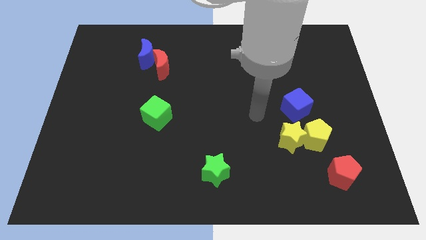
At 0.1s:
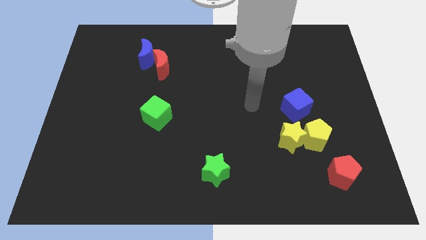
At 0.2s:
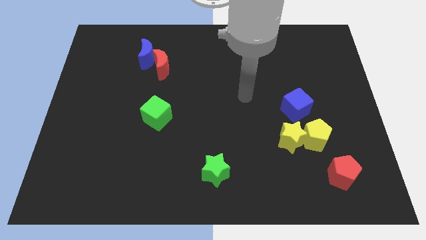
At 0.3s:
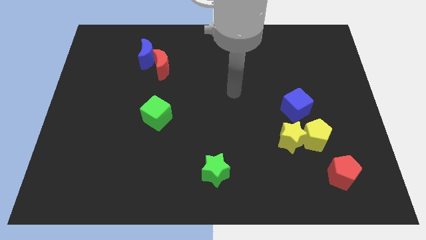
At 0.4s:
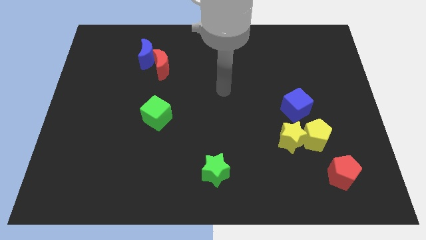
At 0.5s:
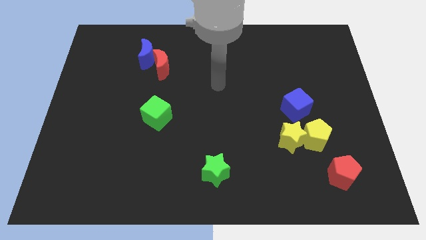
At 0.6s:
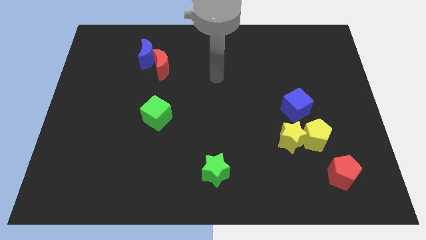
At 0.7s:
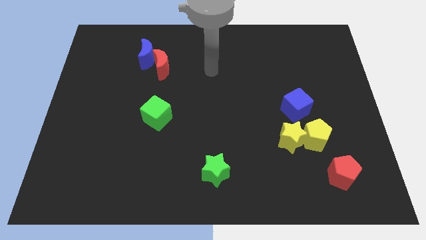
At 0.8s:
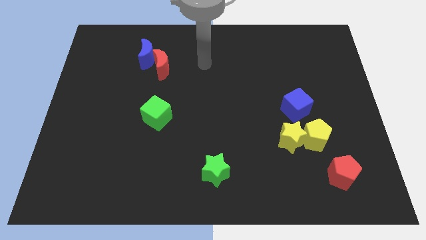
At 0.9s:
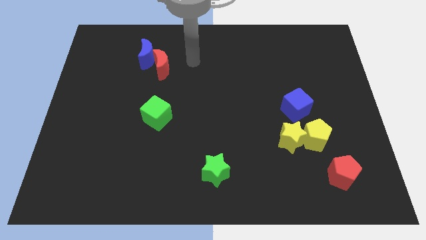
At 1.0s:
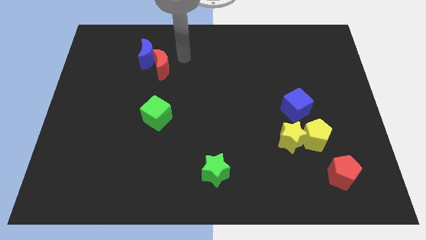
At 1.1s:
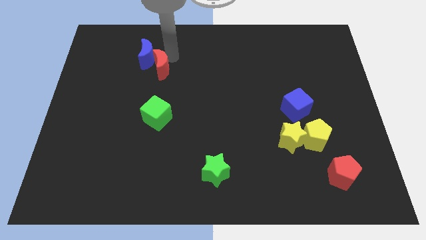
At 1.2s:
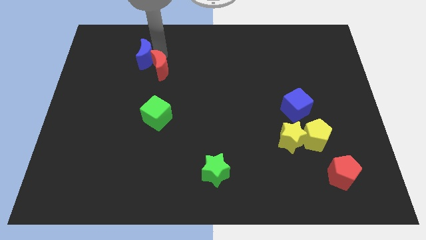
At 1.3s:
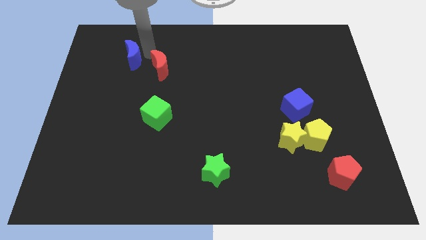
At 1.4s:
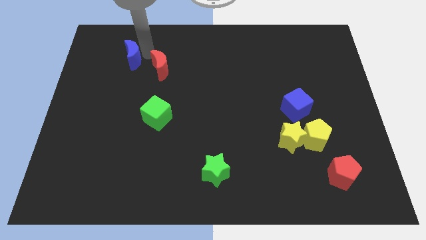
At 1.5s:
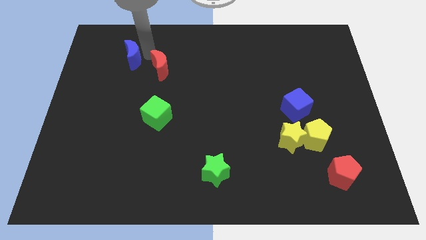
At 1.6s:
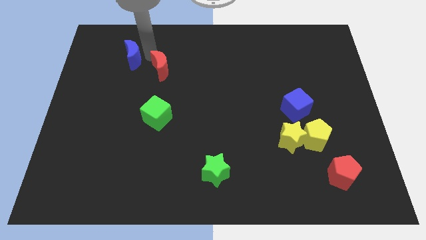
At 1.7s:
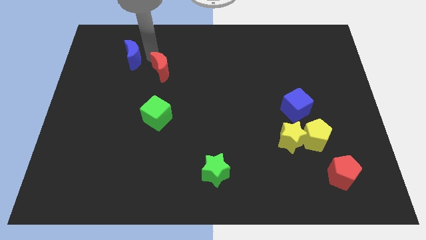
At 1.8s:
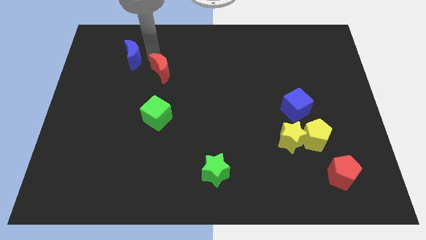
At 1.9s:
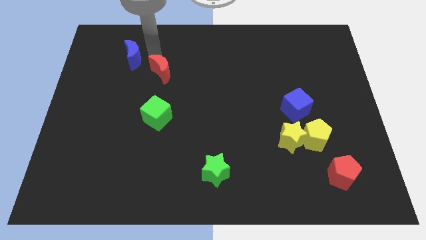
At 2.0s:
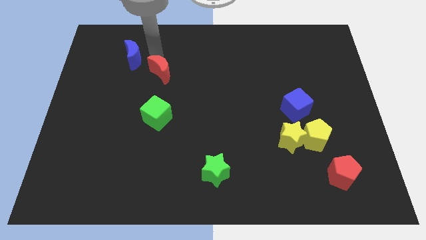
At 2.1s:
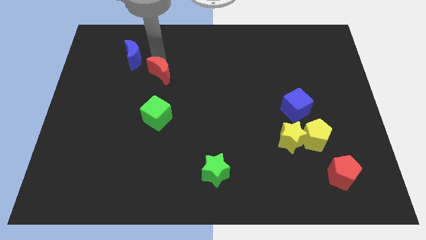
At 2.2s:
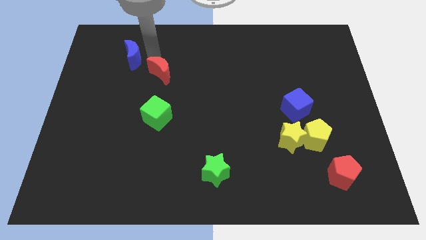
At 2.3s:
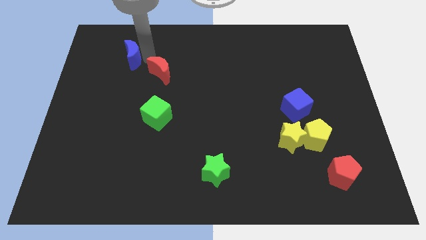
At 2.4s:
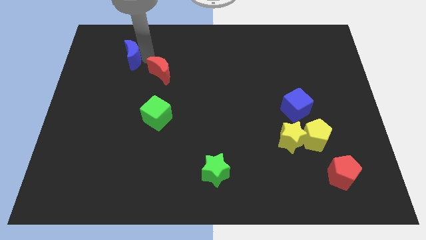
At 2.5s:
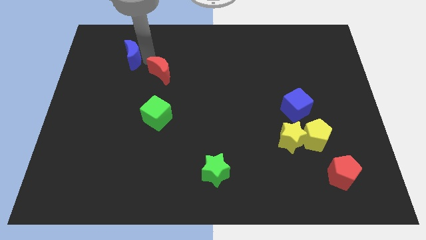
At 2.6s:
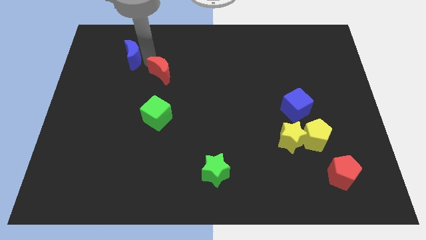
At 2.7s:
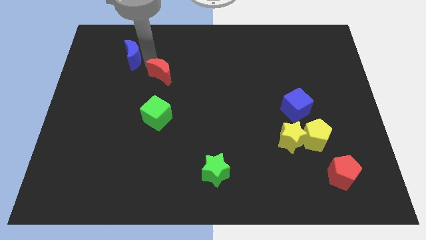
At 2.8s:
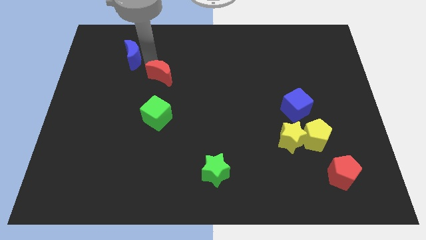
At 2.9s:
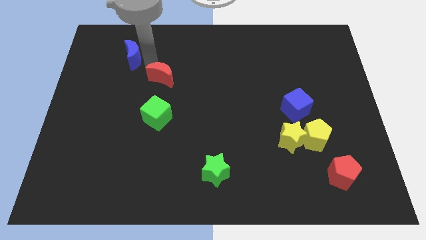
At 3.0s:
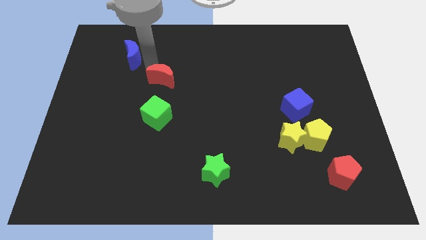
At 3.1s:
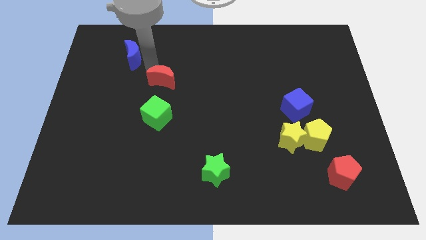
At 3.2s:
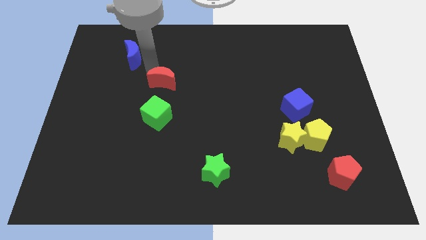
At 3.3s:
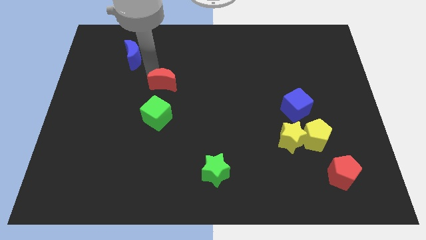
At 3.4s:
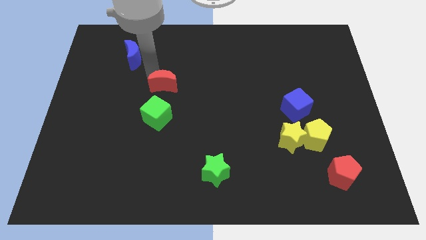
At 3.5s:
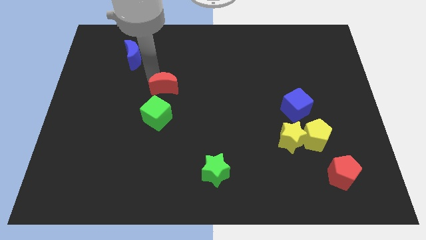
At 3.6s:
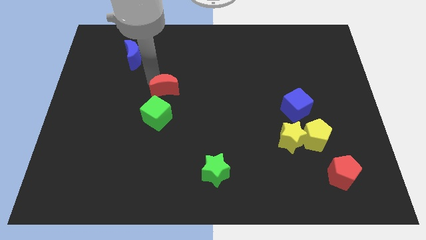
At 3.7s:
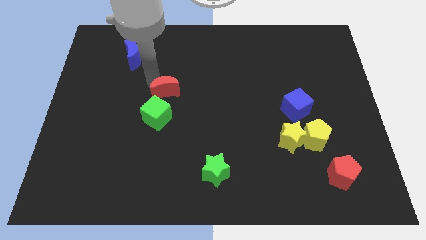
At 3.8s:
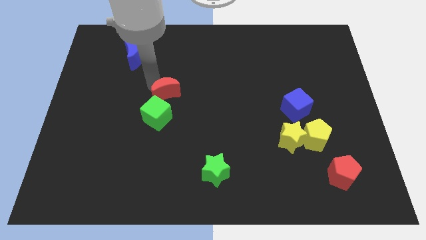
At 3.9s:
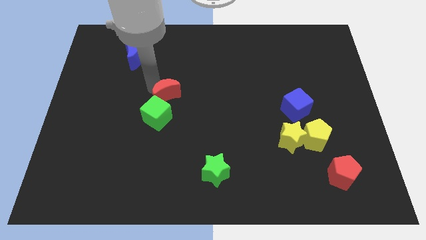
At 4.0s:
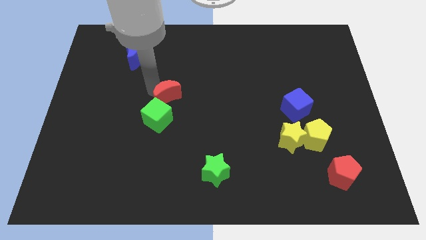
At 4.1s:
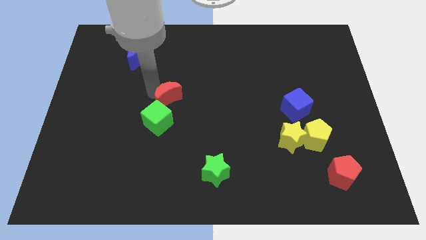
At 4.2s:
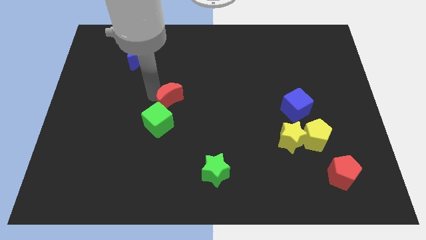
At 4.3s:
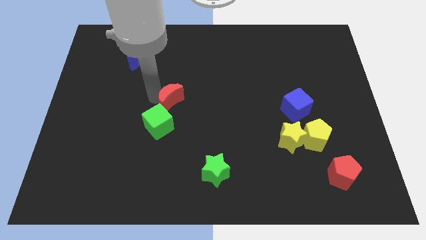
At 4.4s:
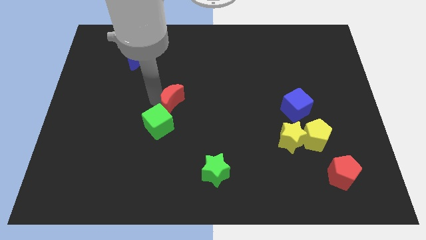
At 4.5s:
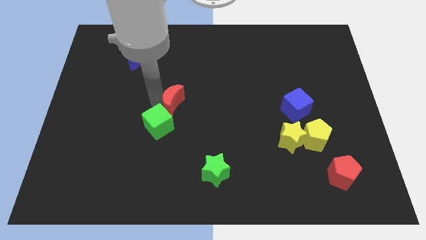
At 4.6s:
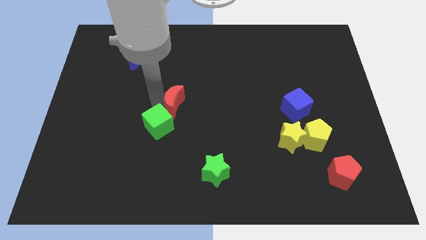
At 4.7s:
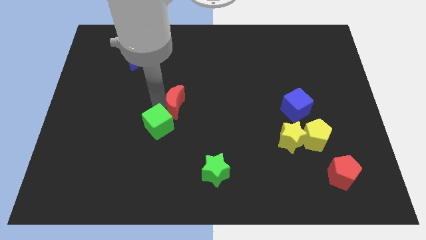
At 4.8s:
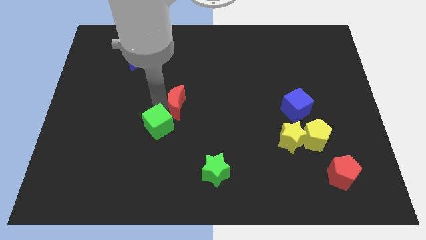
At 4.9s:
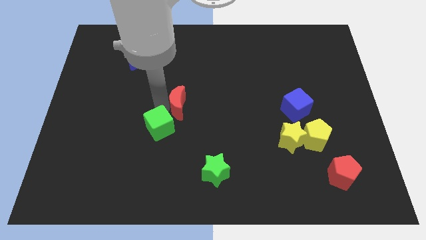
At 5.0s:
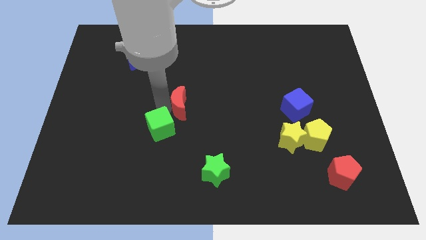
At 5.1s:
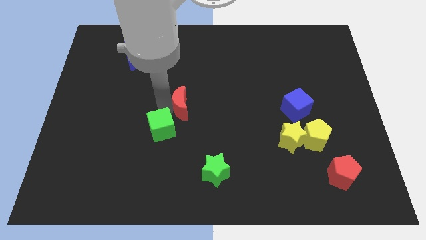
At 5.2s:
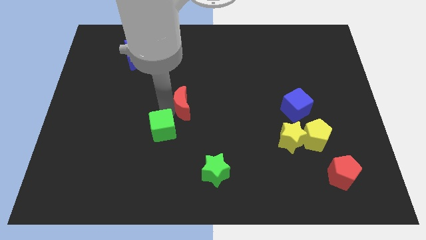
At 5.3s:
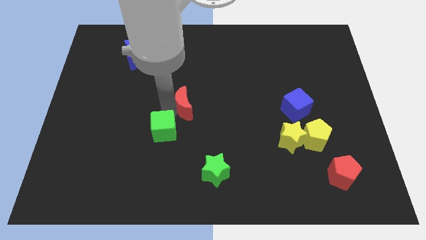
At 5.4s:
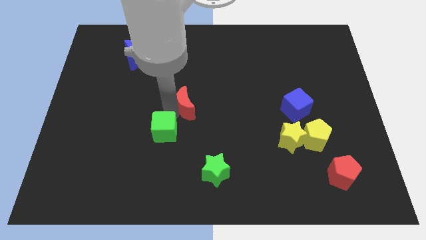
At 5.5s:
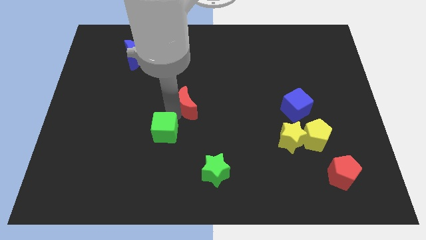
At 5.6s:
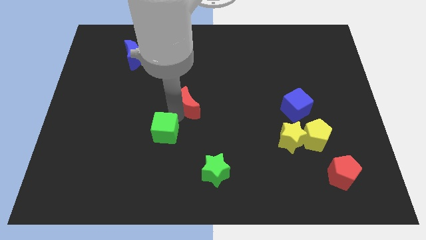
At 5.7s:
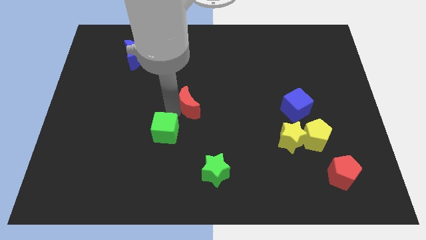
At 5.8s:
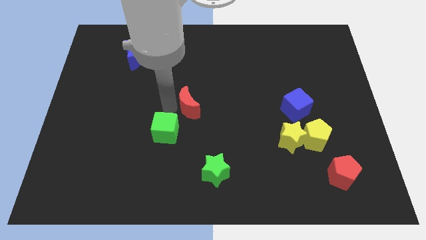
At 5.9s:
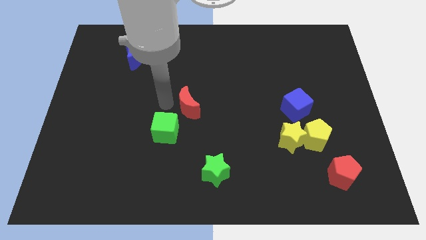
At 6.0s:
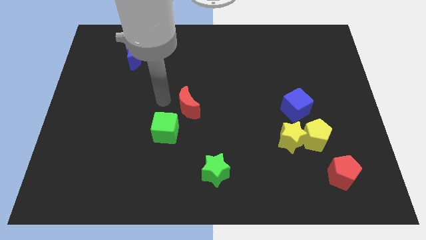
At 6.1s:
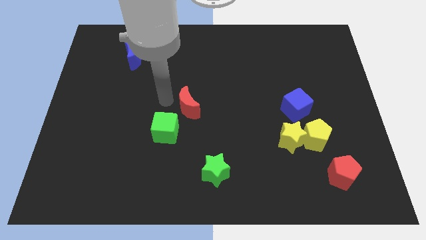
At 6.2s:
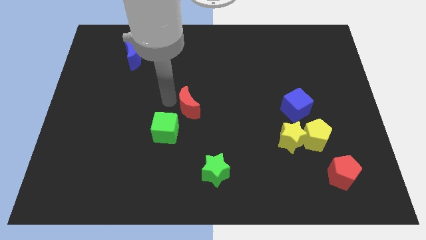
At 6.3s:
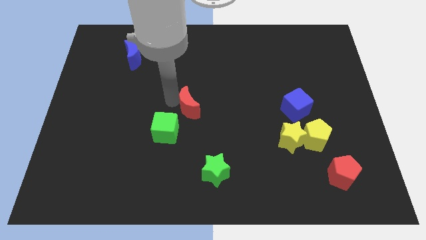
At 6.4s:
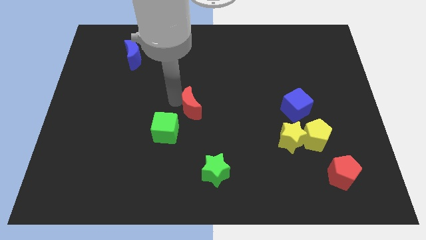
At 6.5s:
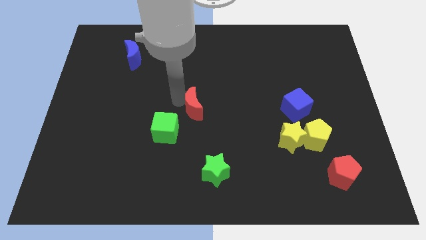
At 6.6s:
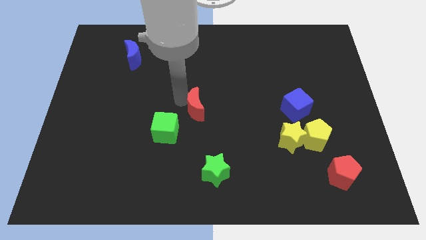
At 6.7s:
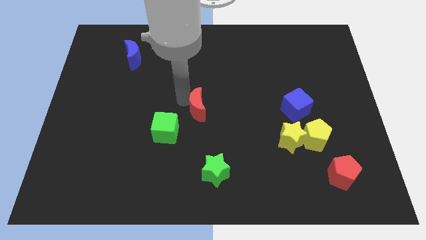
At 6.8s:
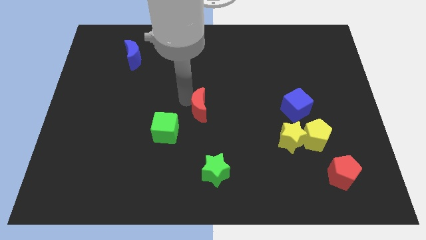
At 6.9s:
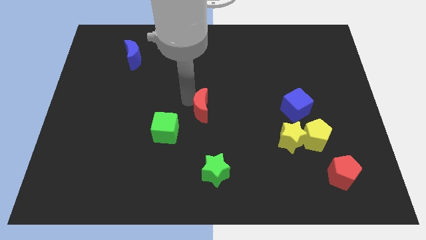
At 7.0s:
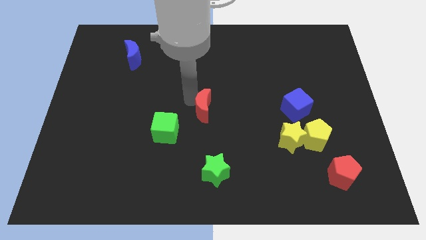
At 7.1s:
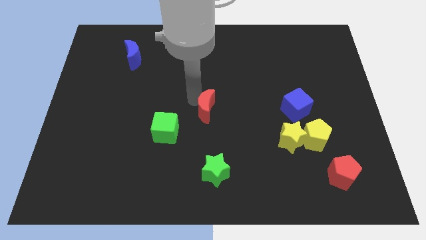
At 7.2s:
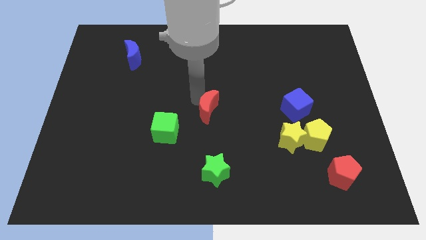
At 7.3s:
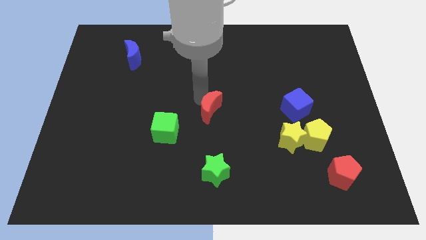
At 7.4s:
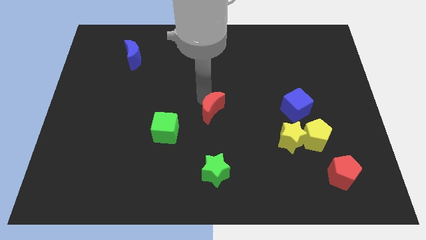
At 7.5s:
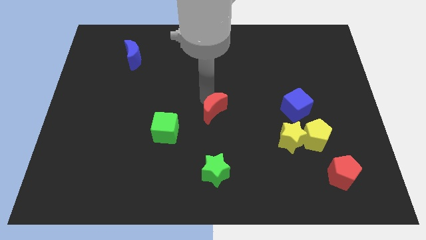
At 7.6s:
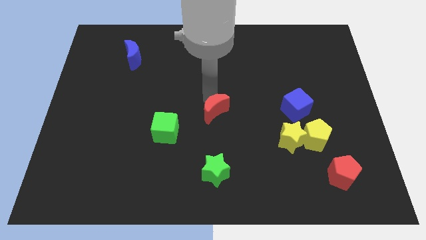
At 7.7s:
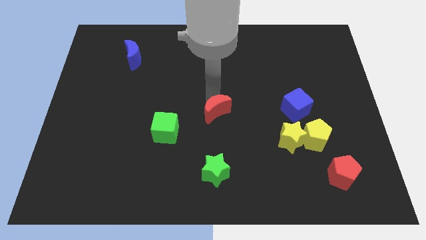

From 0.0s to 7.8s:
move the red moon diagonally down and to the right

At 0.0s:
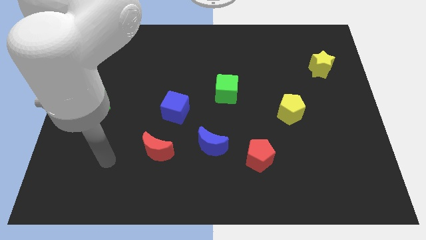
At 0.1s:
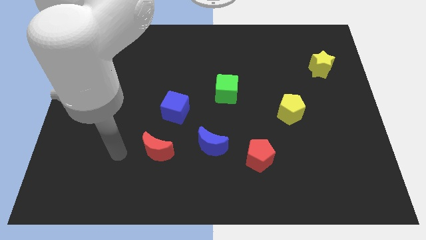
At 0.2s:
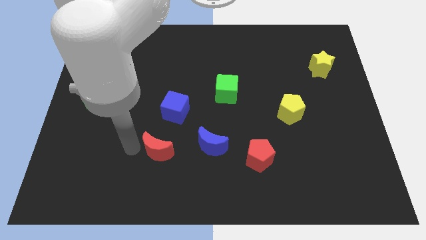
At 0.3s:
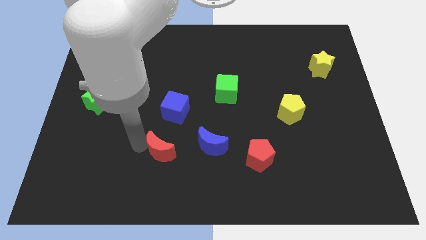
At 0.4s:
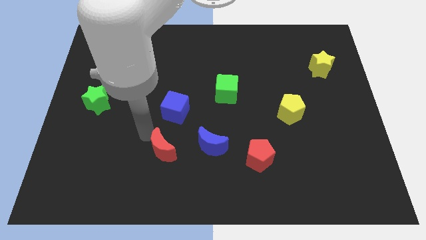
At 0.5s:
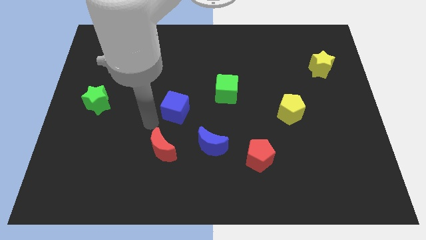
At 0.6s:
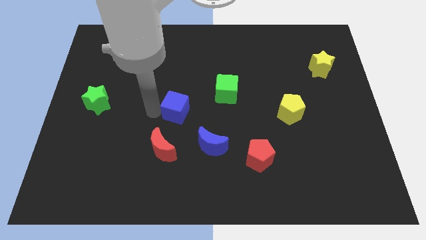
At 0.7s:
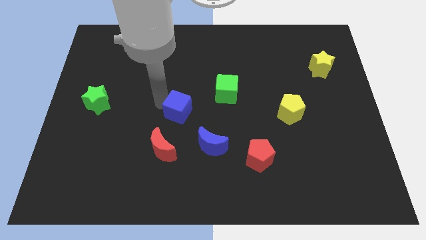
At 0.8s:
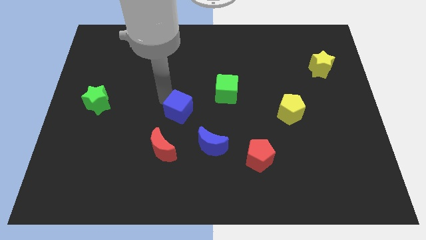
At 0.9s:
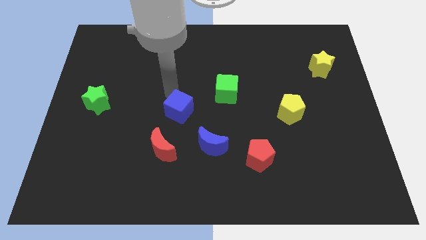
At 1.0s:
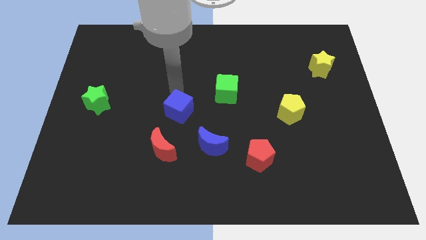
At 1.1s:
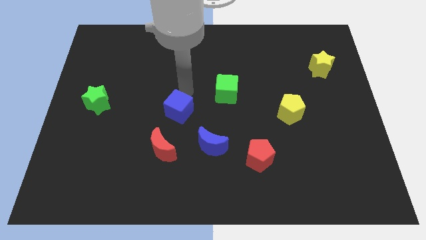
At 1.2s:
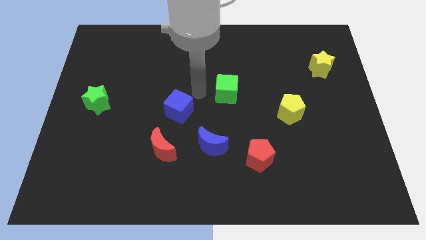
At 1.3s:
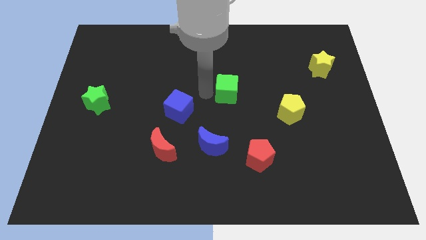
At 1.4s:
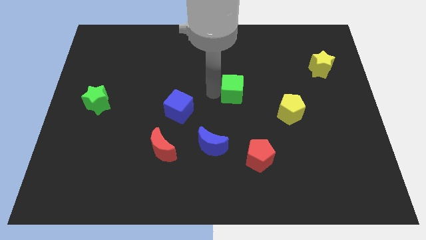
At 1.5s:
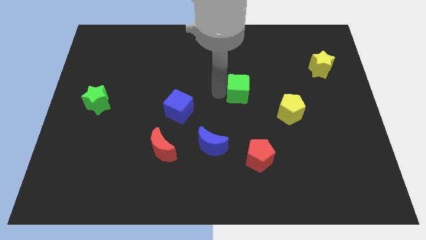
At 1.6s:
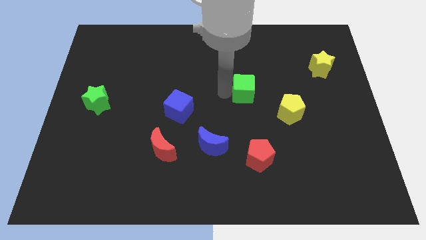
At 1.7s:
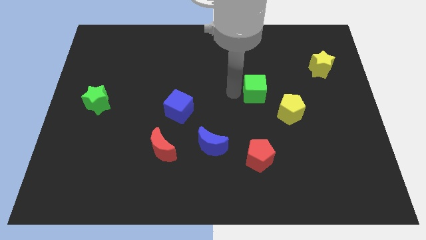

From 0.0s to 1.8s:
move the green cube a little to the right
